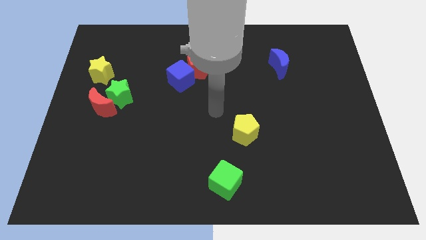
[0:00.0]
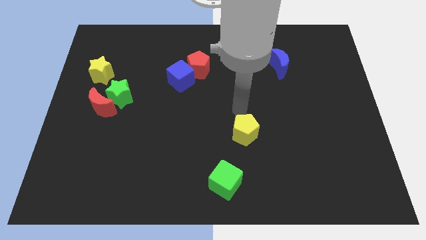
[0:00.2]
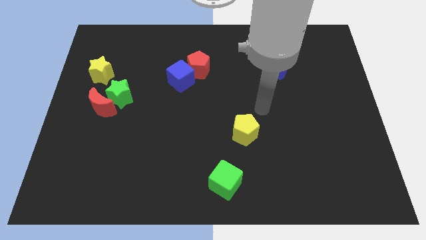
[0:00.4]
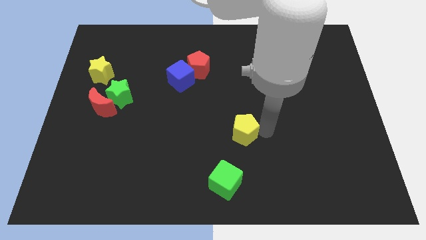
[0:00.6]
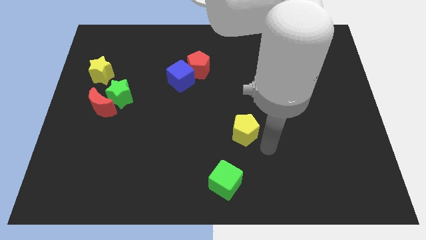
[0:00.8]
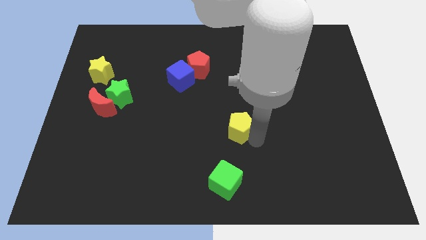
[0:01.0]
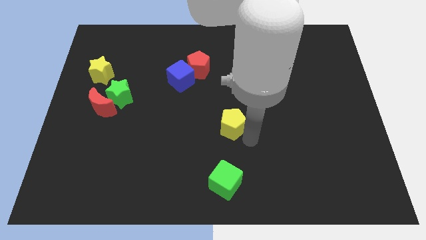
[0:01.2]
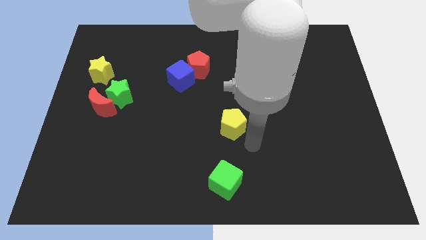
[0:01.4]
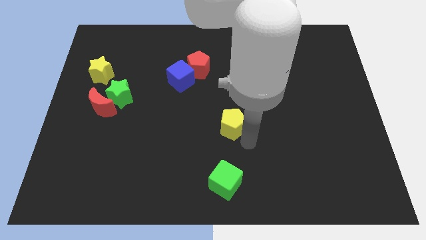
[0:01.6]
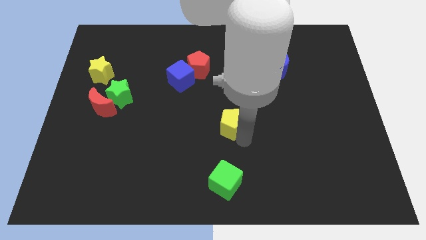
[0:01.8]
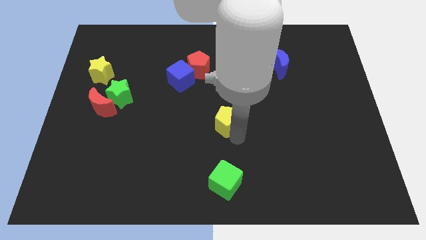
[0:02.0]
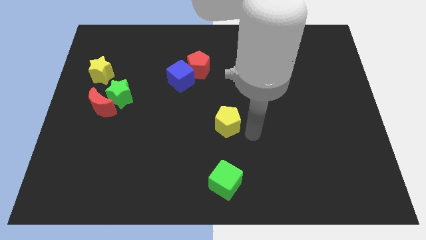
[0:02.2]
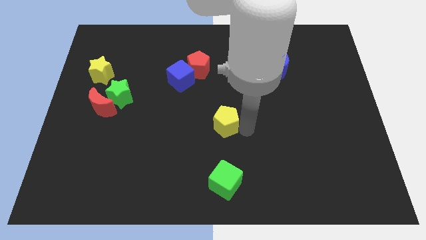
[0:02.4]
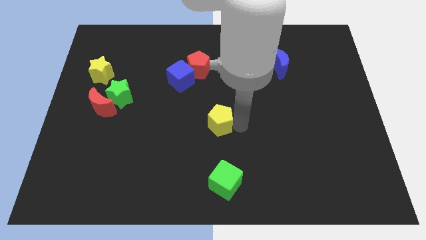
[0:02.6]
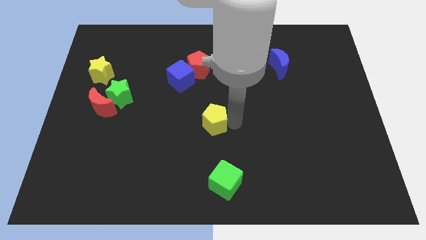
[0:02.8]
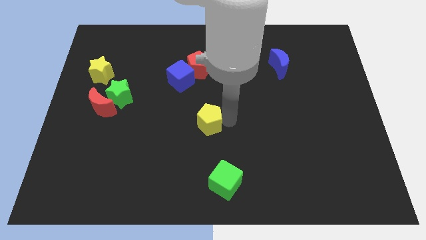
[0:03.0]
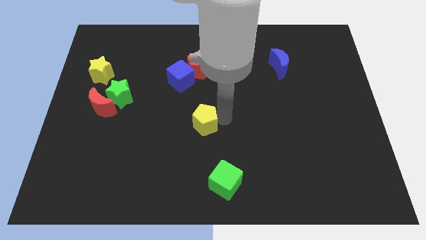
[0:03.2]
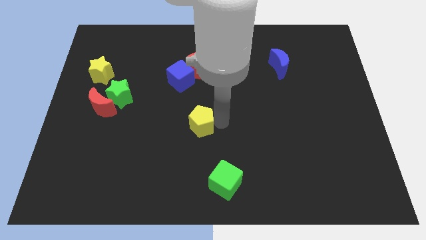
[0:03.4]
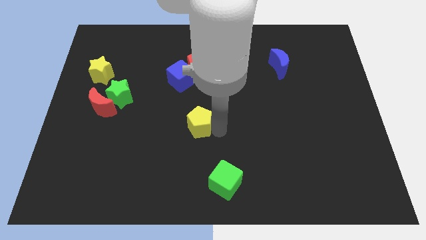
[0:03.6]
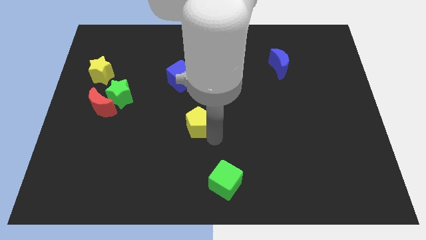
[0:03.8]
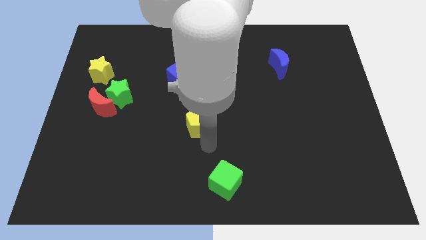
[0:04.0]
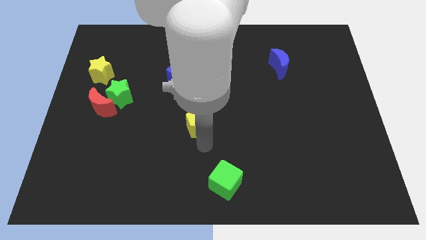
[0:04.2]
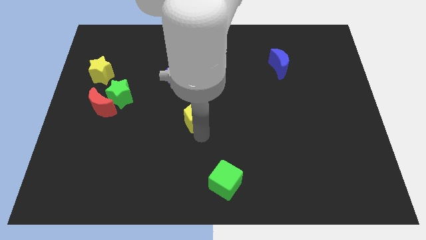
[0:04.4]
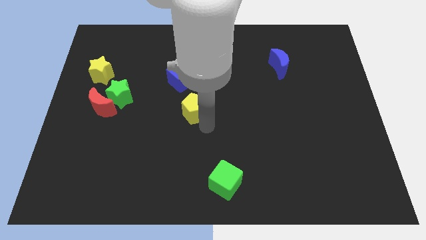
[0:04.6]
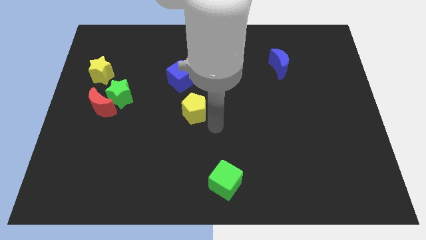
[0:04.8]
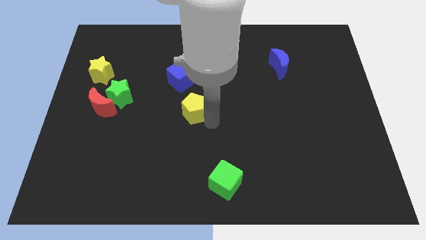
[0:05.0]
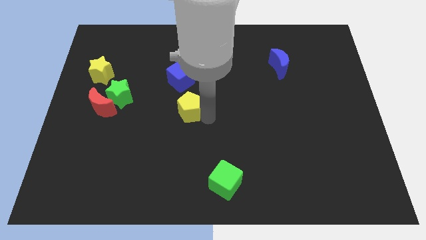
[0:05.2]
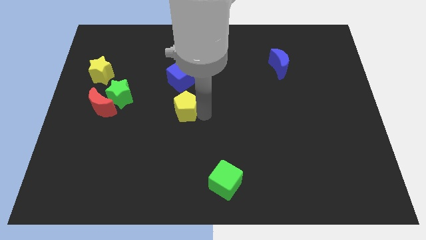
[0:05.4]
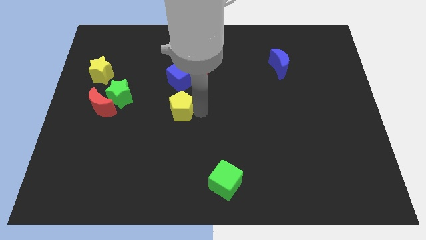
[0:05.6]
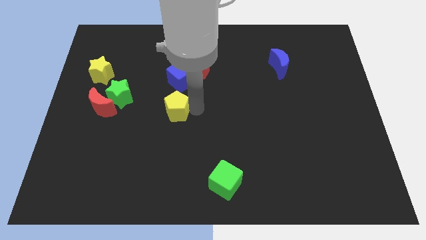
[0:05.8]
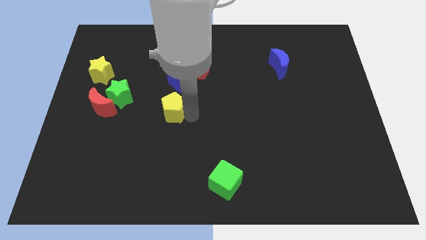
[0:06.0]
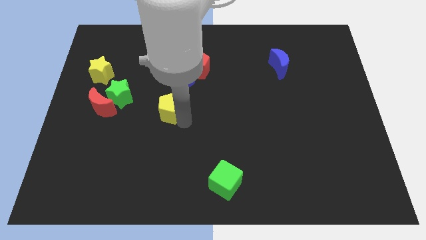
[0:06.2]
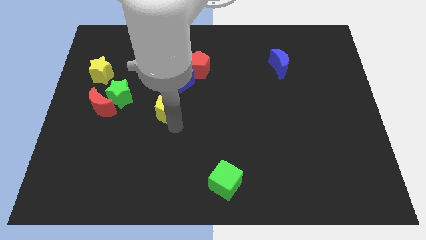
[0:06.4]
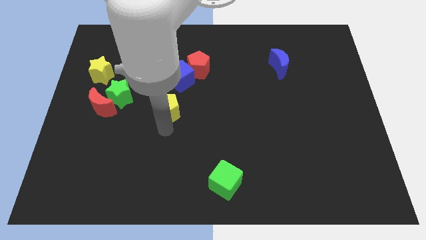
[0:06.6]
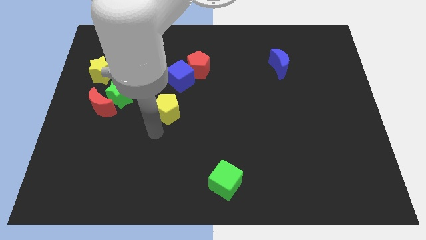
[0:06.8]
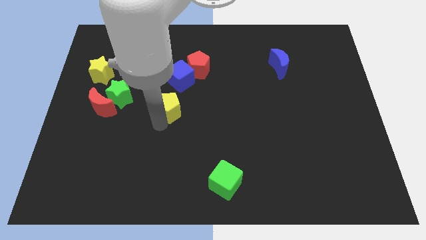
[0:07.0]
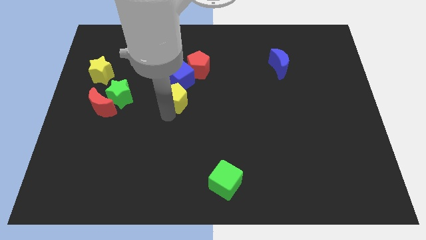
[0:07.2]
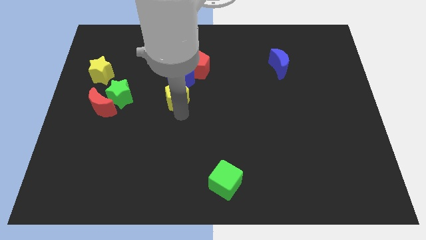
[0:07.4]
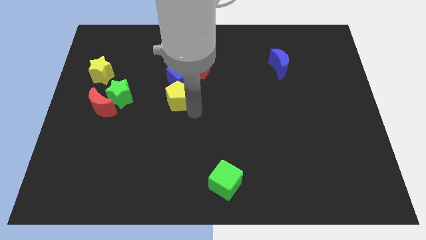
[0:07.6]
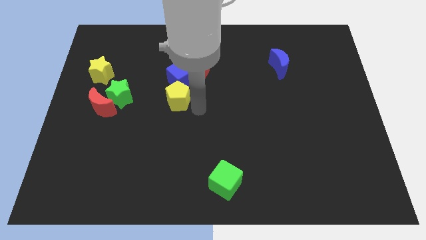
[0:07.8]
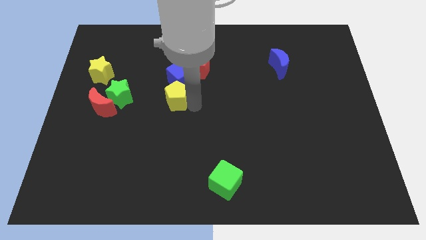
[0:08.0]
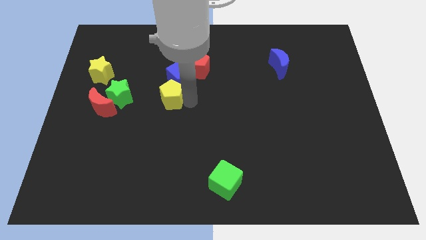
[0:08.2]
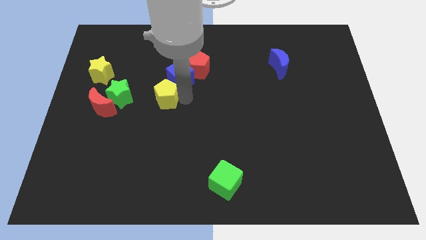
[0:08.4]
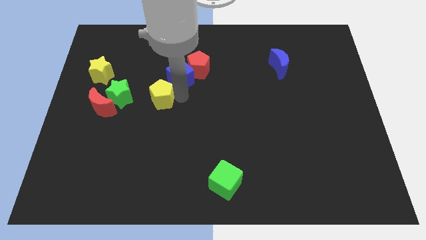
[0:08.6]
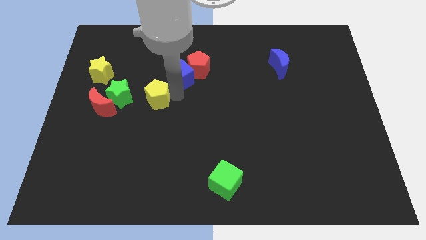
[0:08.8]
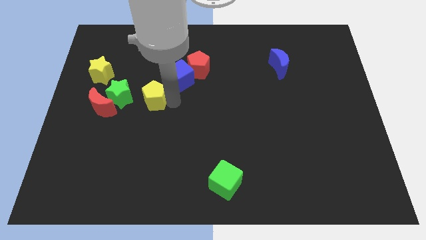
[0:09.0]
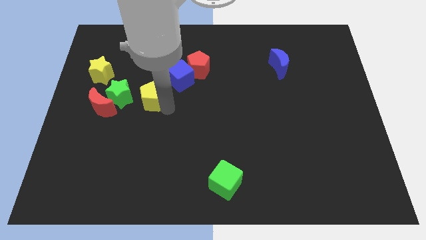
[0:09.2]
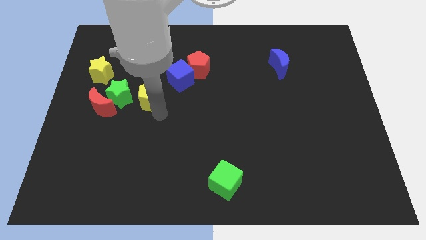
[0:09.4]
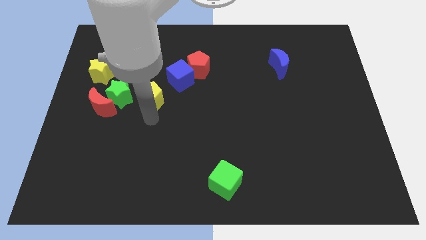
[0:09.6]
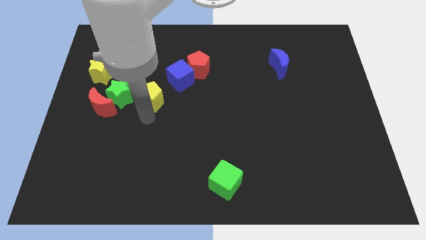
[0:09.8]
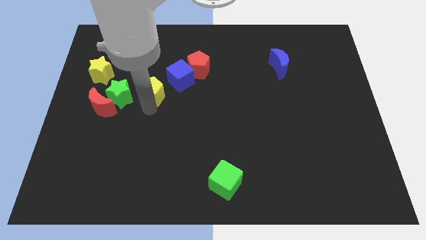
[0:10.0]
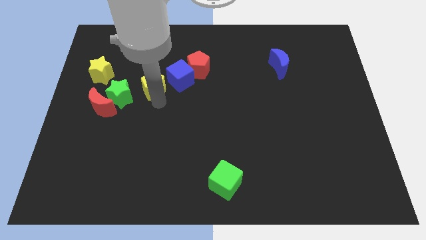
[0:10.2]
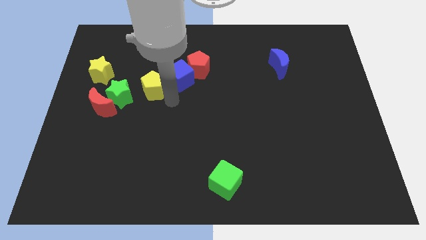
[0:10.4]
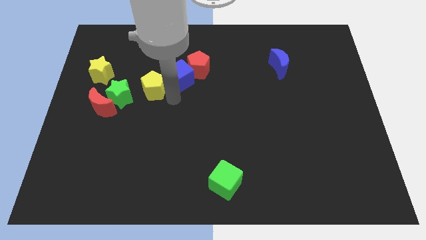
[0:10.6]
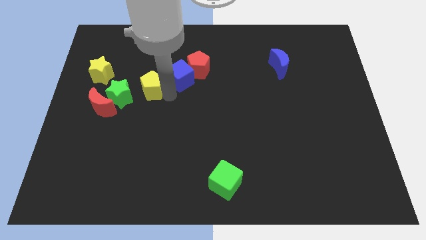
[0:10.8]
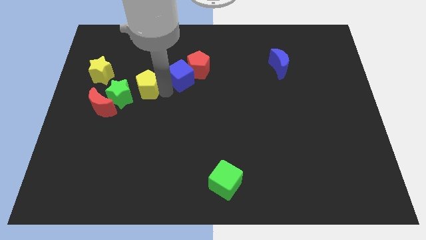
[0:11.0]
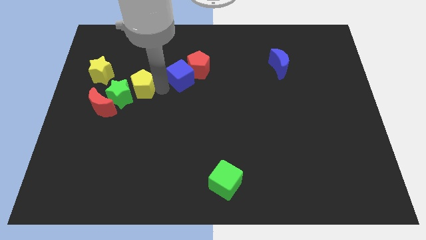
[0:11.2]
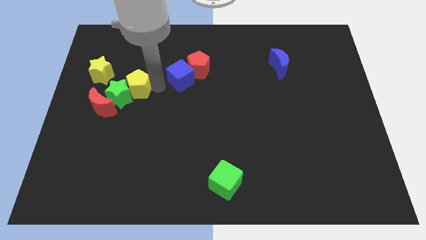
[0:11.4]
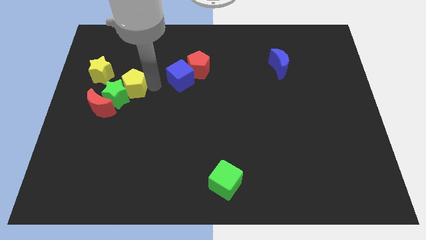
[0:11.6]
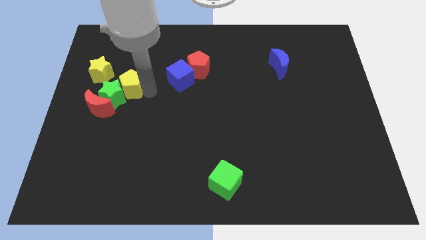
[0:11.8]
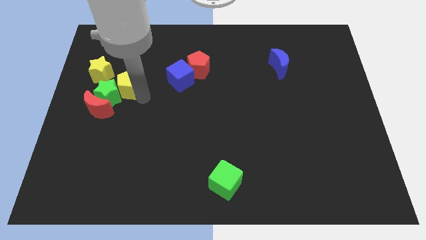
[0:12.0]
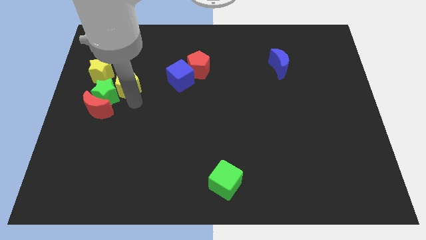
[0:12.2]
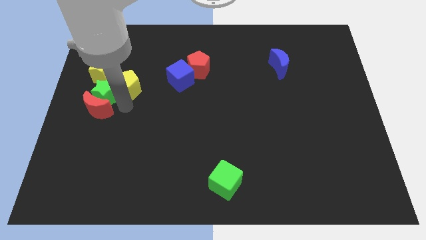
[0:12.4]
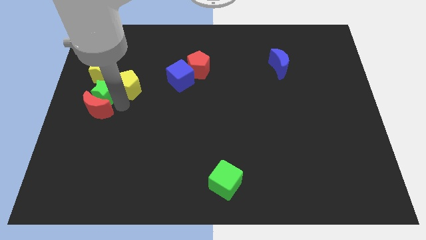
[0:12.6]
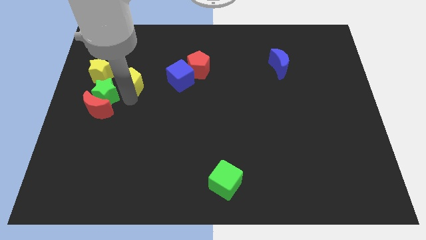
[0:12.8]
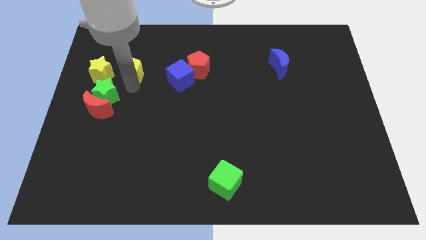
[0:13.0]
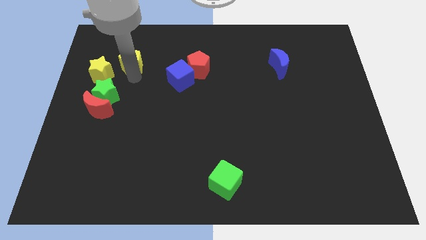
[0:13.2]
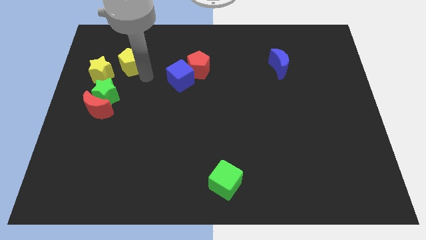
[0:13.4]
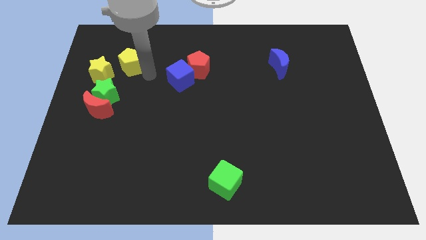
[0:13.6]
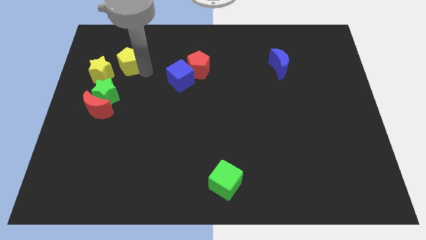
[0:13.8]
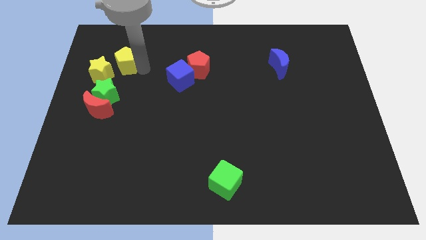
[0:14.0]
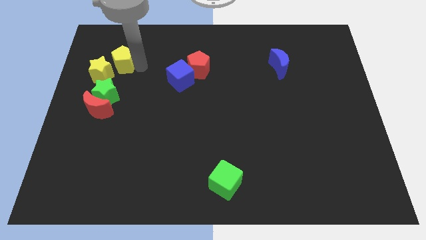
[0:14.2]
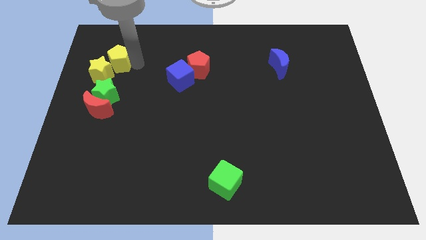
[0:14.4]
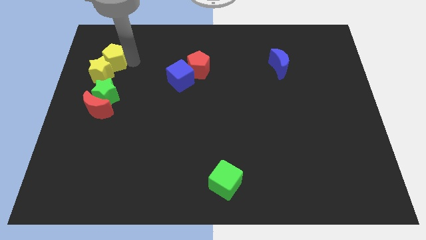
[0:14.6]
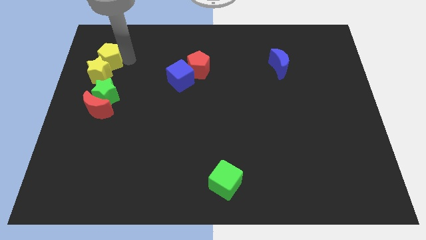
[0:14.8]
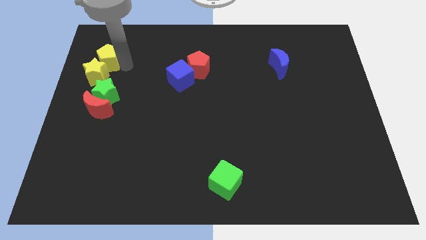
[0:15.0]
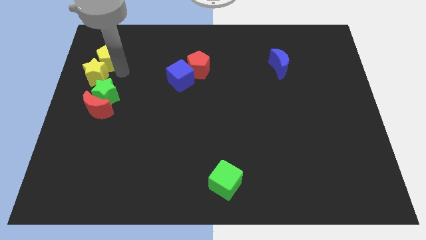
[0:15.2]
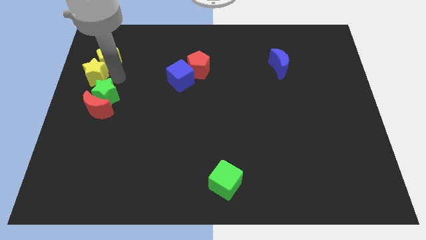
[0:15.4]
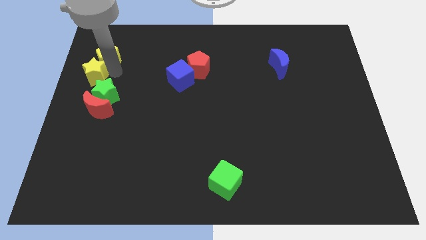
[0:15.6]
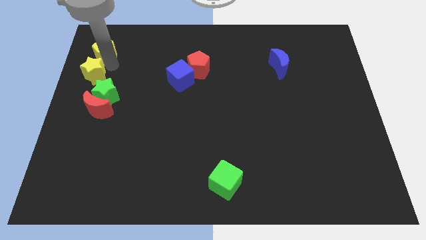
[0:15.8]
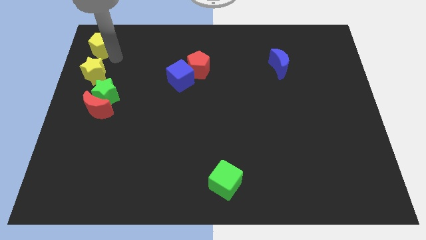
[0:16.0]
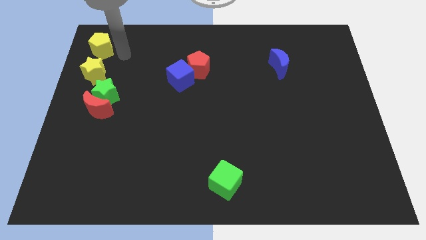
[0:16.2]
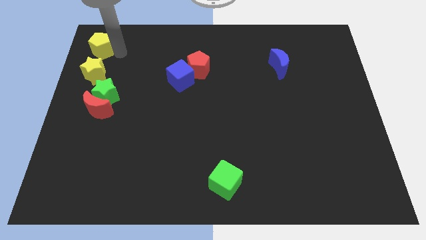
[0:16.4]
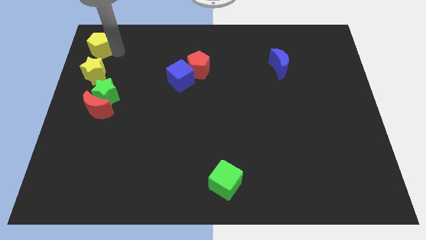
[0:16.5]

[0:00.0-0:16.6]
move the yellow pentagon to the top left
